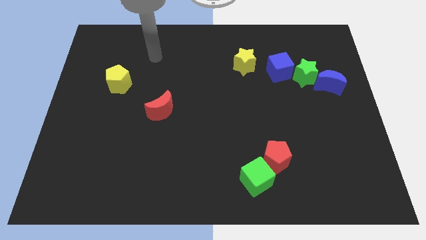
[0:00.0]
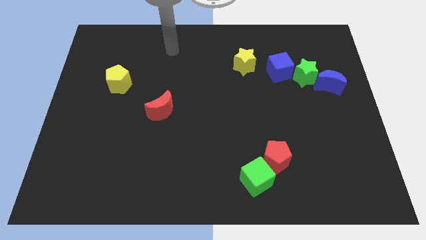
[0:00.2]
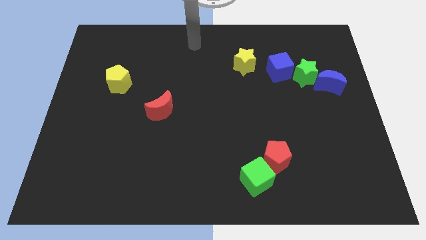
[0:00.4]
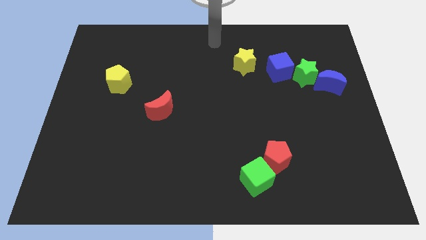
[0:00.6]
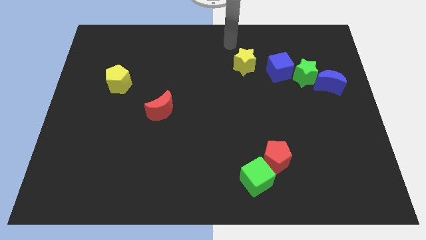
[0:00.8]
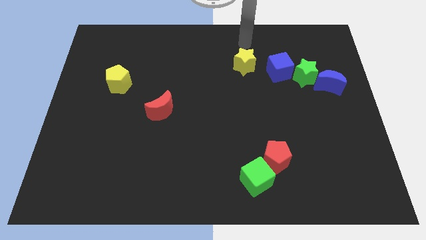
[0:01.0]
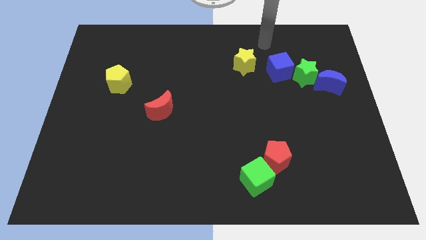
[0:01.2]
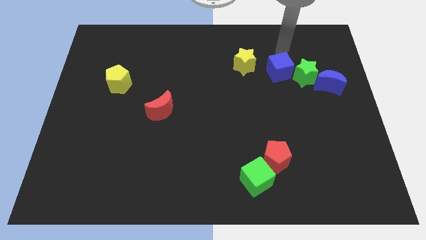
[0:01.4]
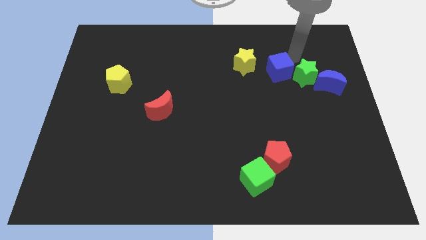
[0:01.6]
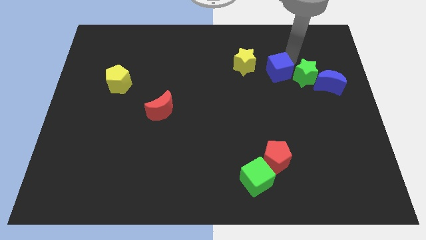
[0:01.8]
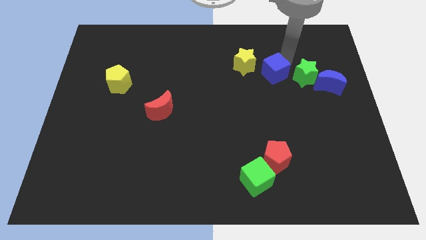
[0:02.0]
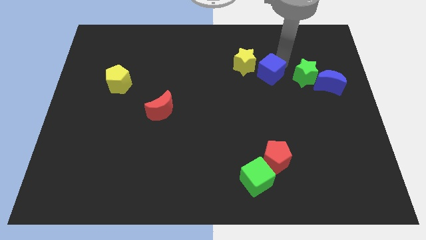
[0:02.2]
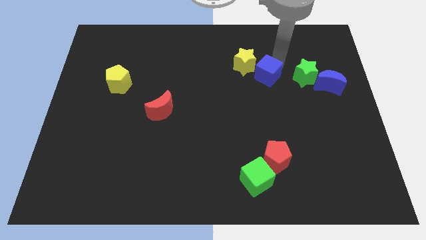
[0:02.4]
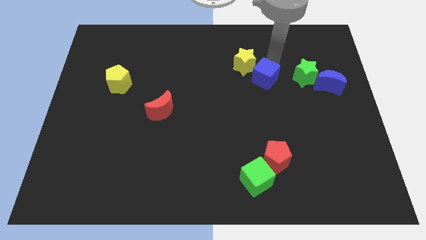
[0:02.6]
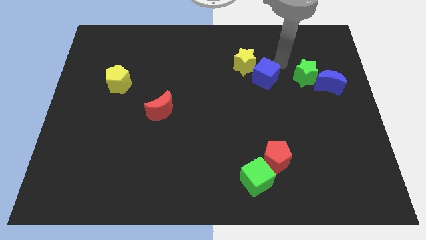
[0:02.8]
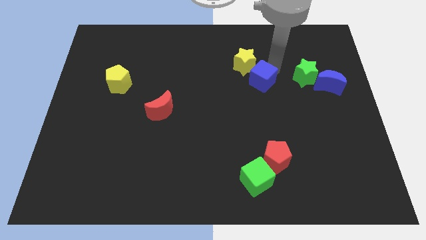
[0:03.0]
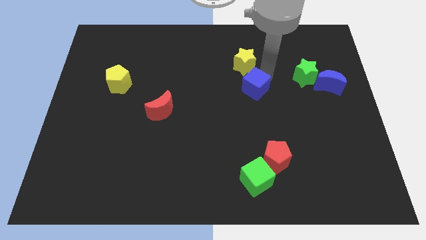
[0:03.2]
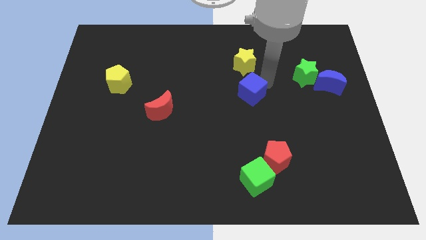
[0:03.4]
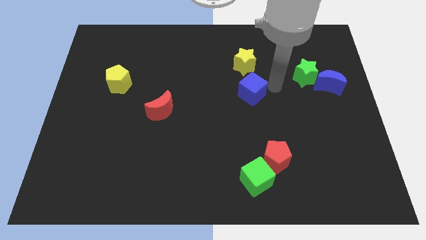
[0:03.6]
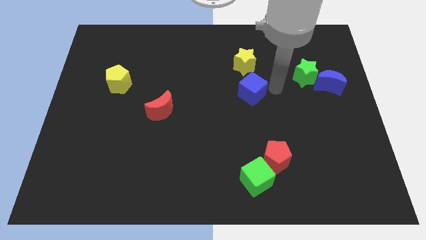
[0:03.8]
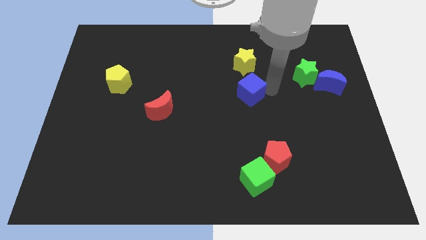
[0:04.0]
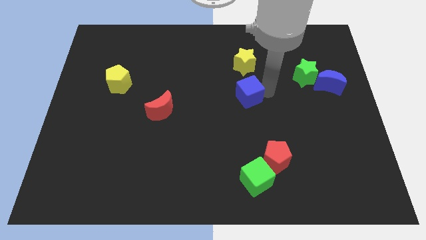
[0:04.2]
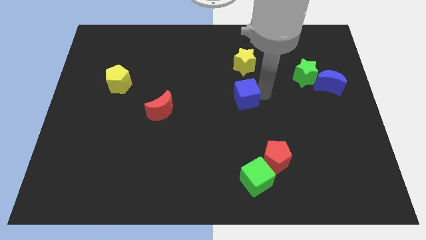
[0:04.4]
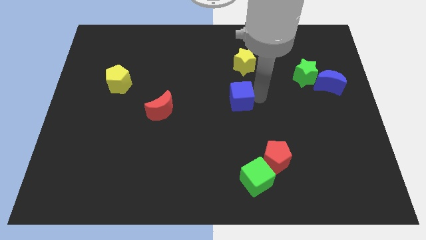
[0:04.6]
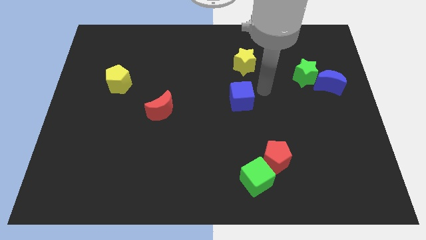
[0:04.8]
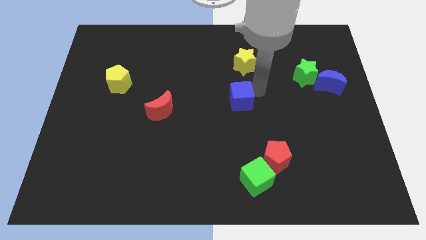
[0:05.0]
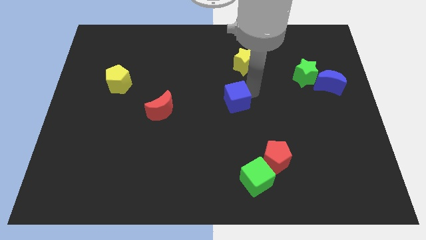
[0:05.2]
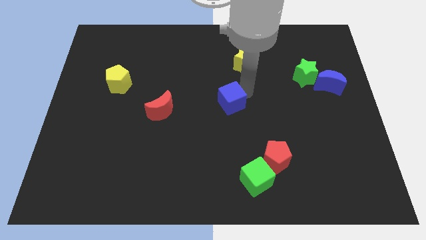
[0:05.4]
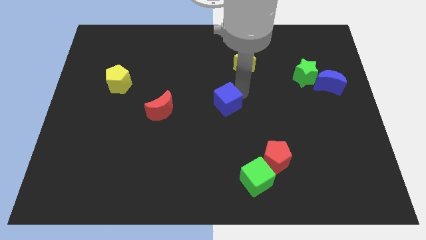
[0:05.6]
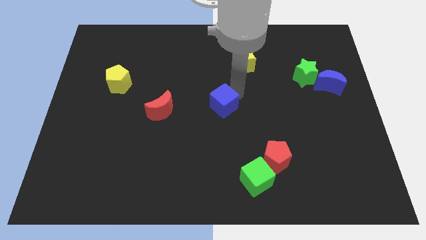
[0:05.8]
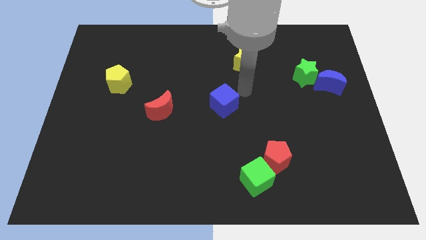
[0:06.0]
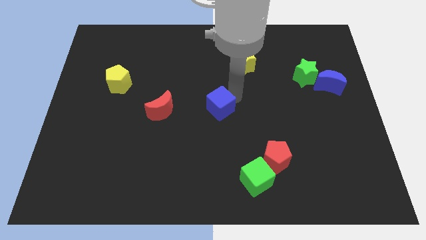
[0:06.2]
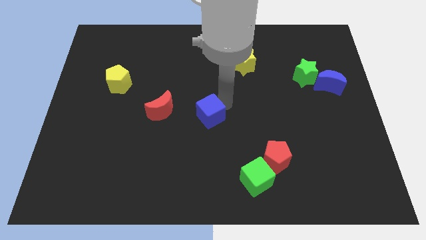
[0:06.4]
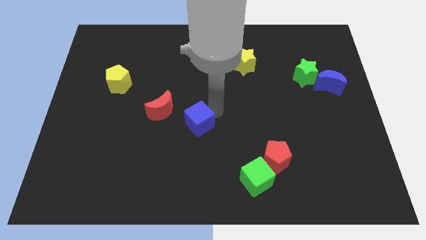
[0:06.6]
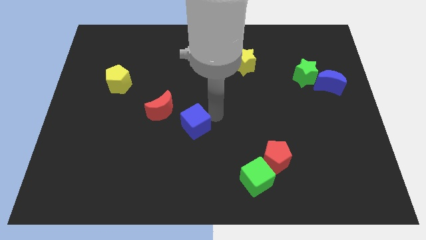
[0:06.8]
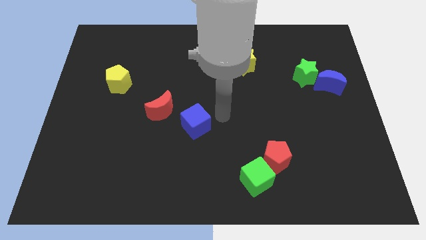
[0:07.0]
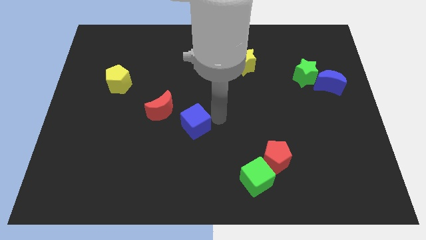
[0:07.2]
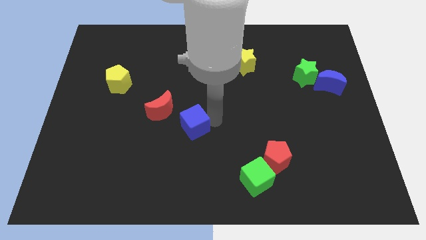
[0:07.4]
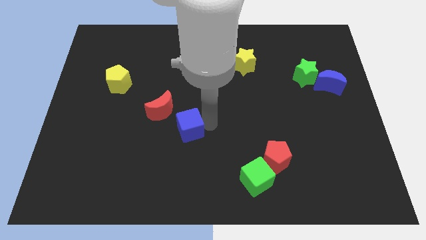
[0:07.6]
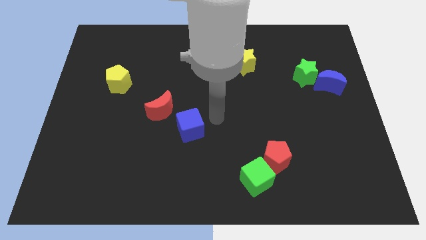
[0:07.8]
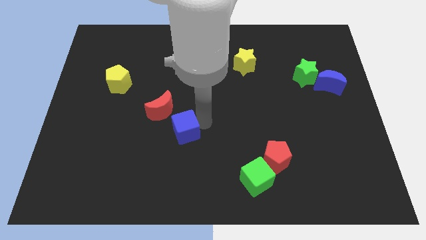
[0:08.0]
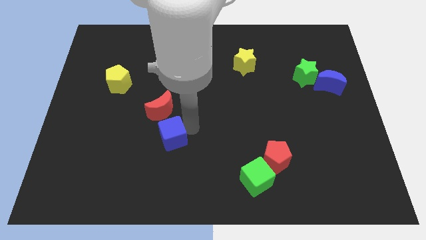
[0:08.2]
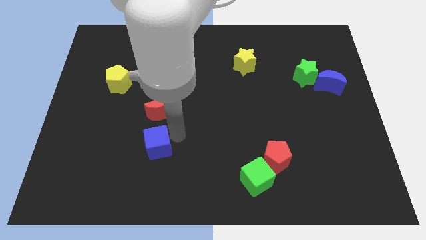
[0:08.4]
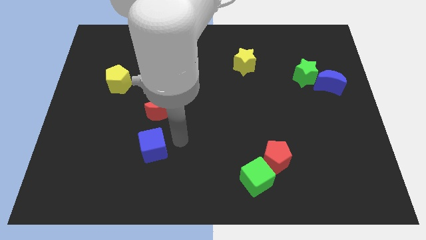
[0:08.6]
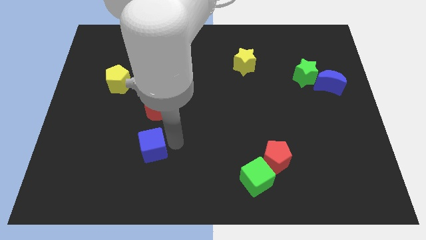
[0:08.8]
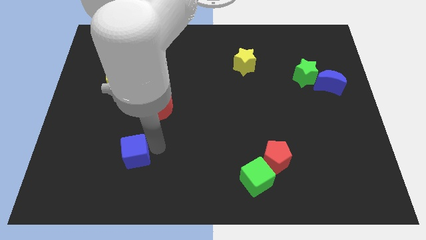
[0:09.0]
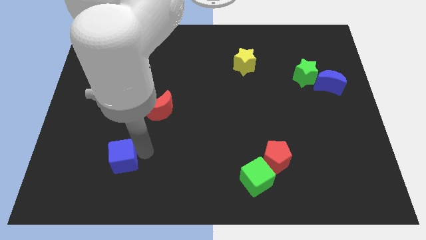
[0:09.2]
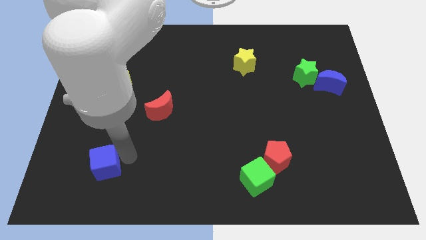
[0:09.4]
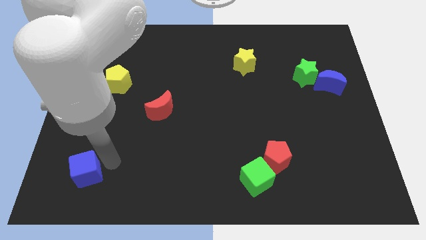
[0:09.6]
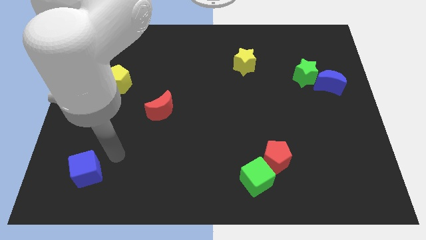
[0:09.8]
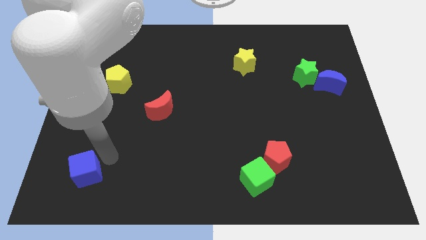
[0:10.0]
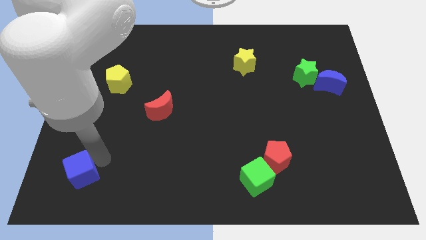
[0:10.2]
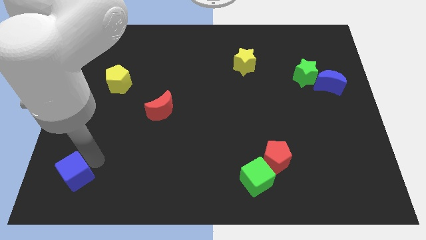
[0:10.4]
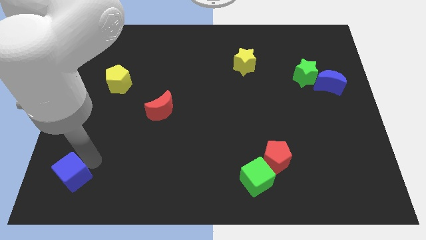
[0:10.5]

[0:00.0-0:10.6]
push the blue cube to the bottom left corner

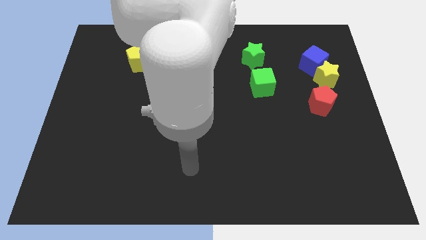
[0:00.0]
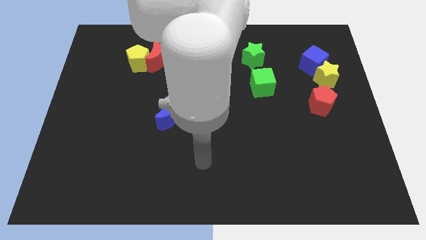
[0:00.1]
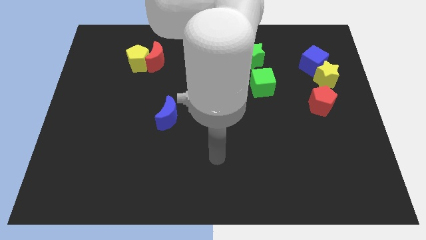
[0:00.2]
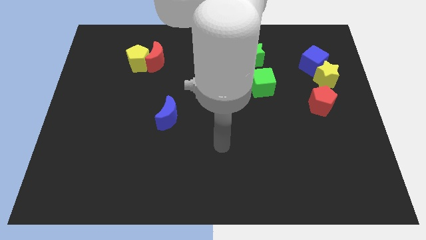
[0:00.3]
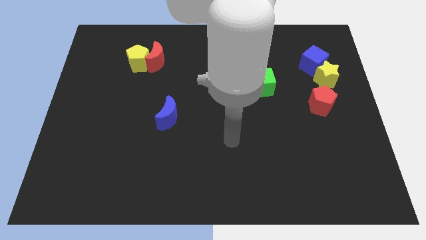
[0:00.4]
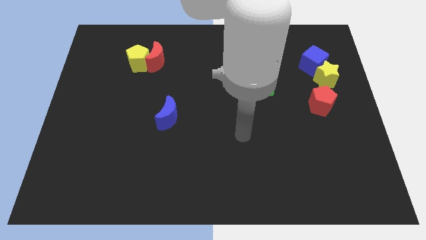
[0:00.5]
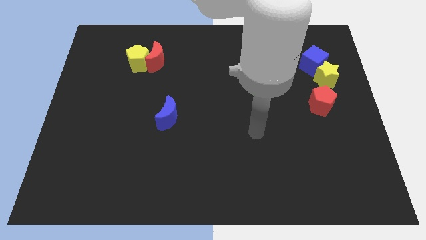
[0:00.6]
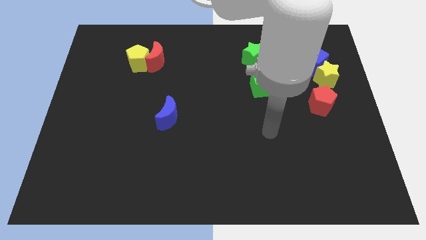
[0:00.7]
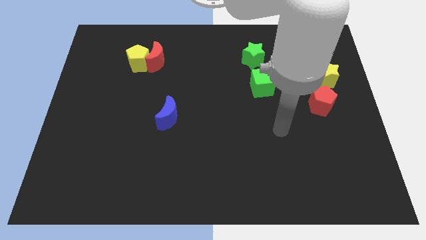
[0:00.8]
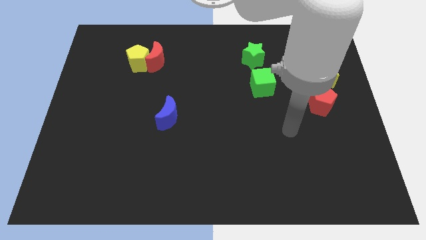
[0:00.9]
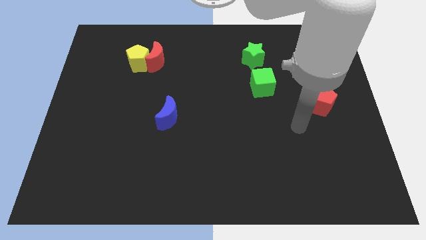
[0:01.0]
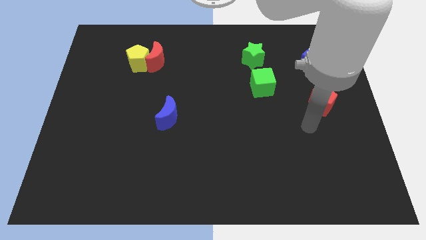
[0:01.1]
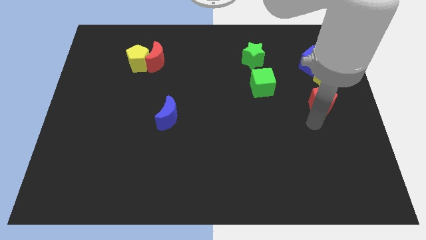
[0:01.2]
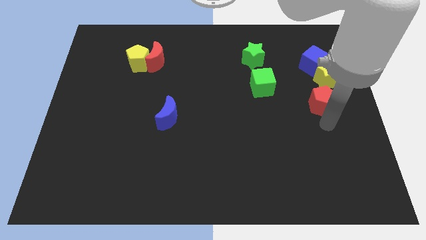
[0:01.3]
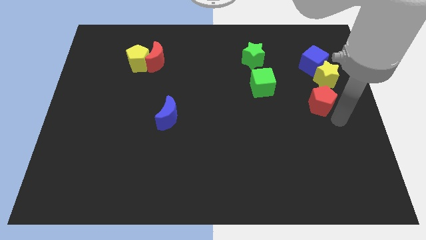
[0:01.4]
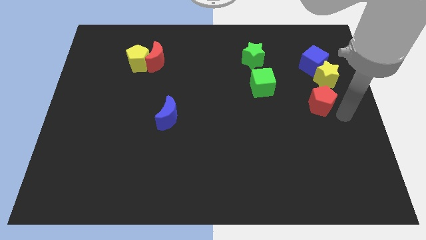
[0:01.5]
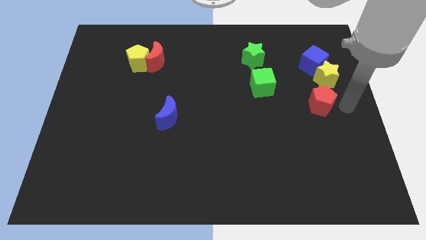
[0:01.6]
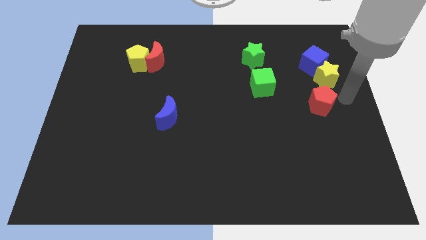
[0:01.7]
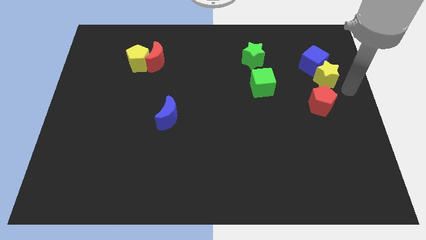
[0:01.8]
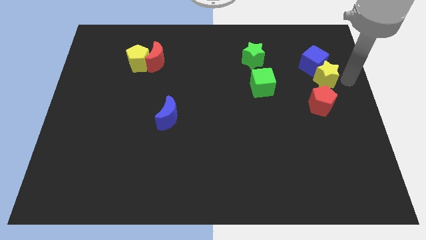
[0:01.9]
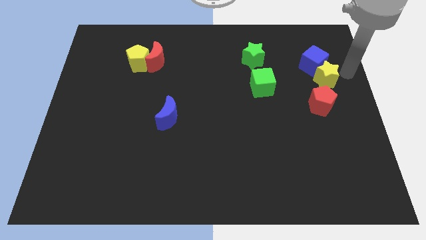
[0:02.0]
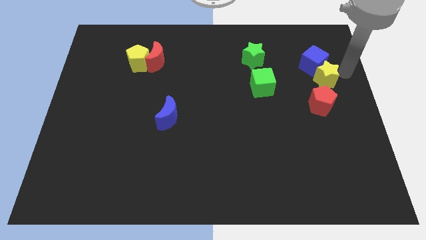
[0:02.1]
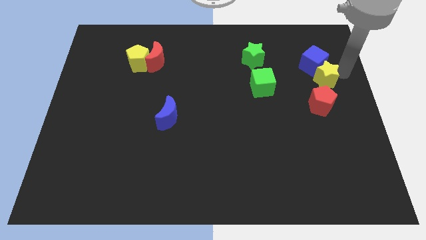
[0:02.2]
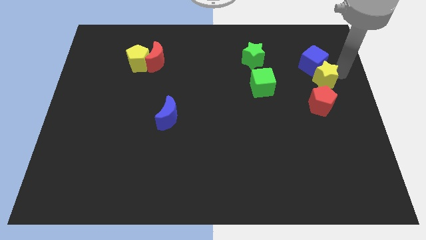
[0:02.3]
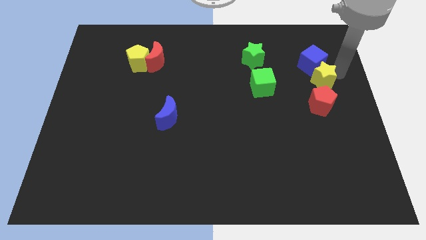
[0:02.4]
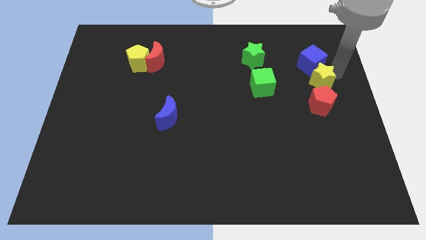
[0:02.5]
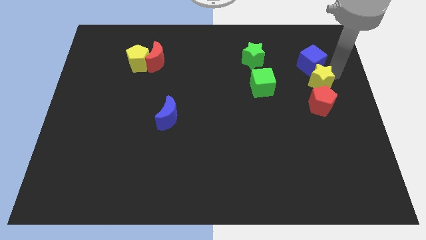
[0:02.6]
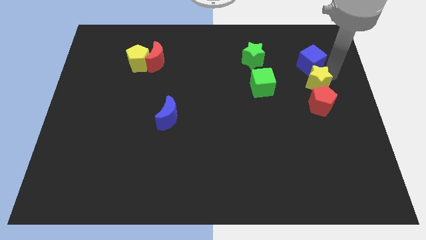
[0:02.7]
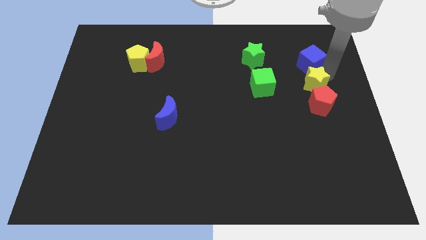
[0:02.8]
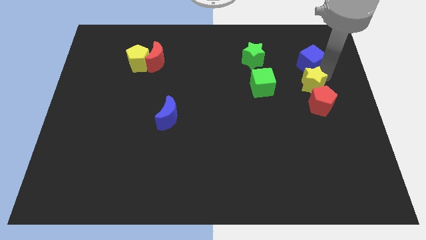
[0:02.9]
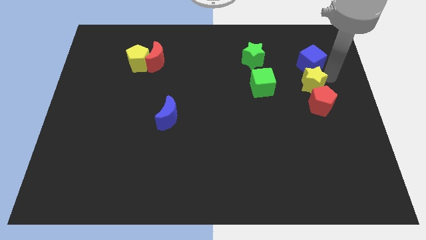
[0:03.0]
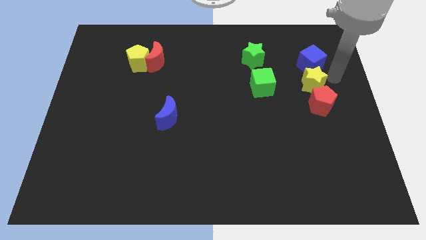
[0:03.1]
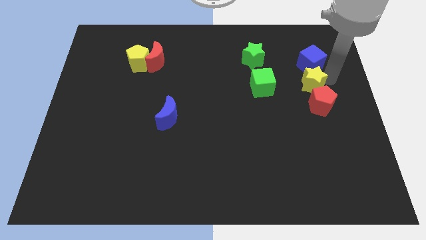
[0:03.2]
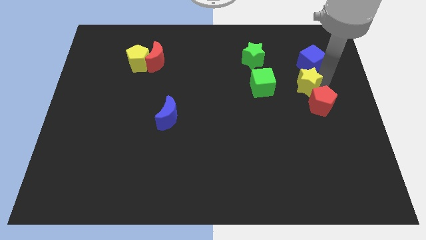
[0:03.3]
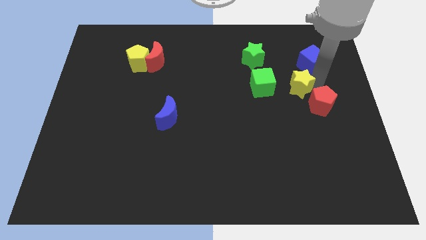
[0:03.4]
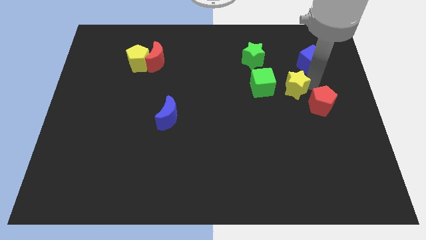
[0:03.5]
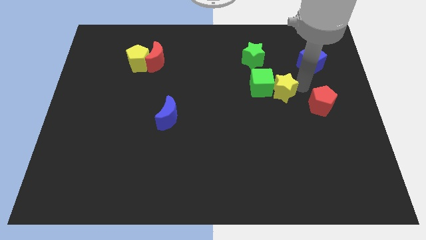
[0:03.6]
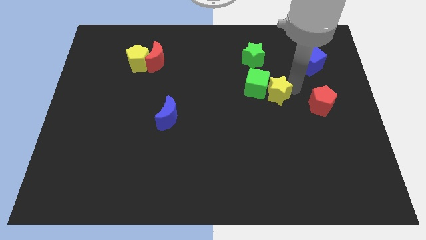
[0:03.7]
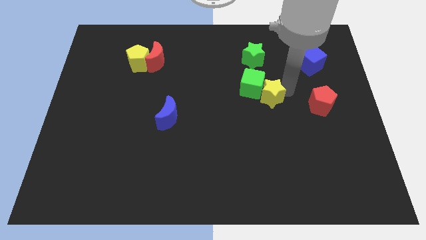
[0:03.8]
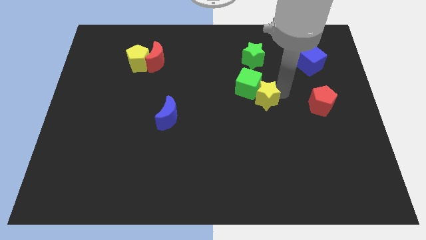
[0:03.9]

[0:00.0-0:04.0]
push the yellow star to the middle of the board
